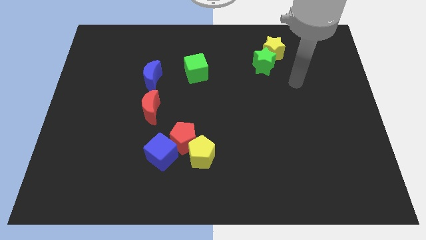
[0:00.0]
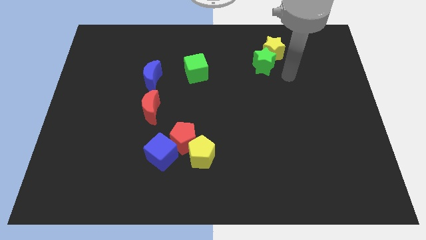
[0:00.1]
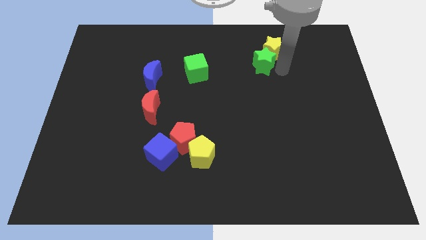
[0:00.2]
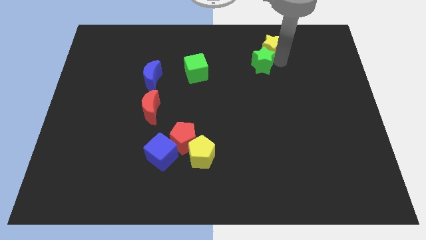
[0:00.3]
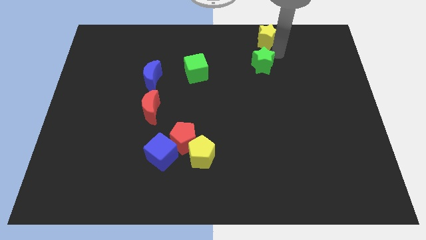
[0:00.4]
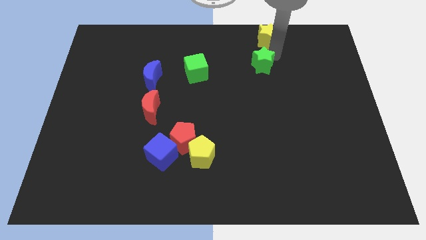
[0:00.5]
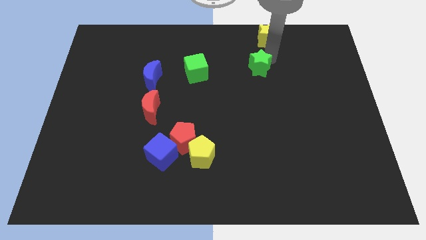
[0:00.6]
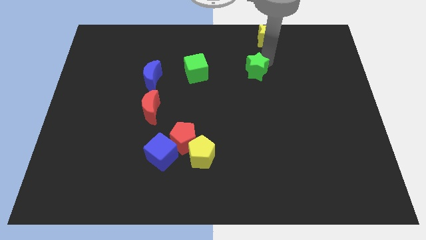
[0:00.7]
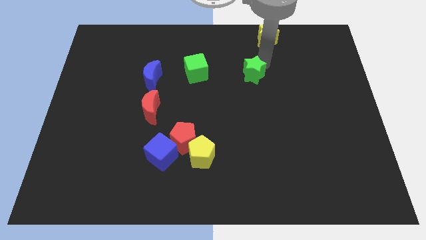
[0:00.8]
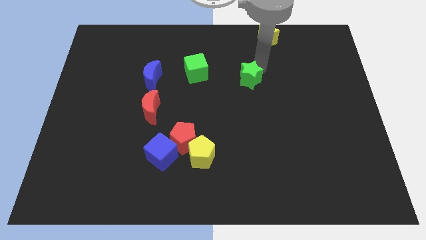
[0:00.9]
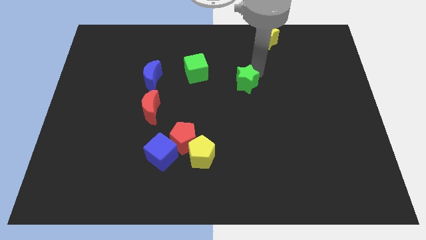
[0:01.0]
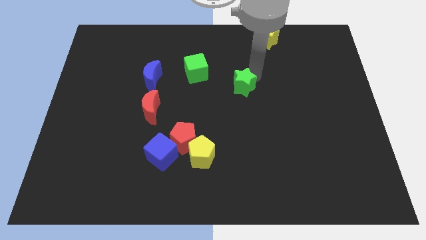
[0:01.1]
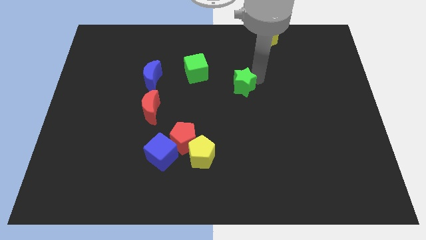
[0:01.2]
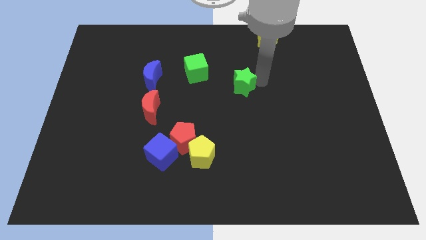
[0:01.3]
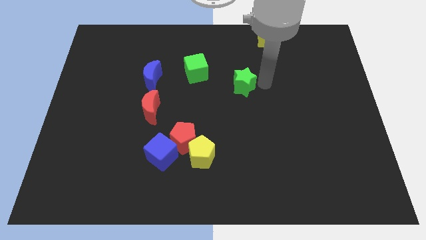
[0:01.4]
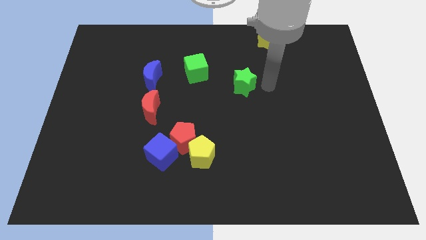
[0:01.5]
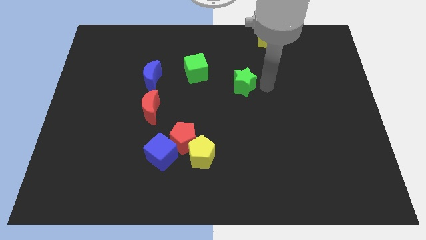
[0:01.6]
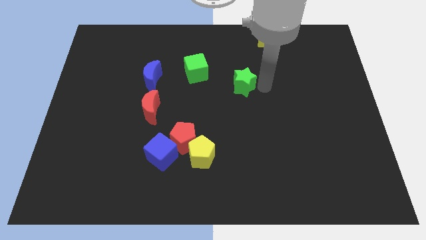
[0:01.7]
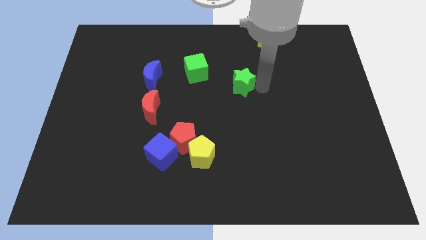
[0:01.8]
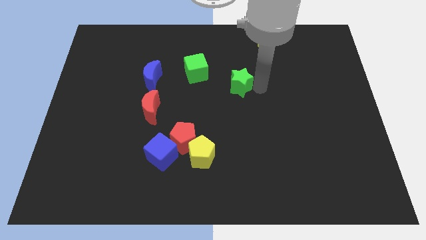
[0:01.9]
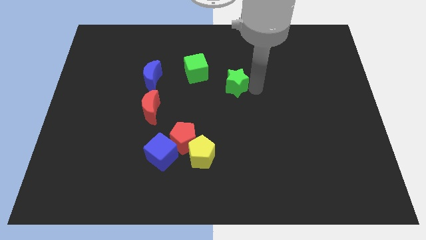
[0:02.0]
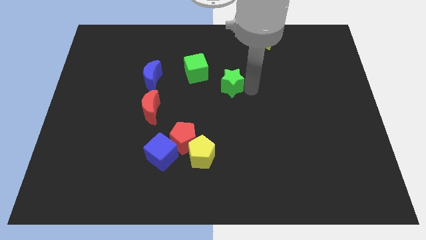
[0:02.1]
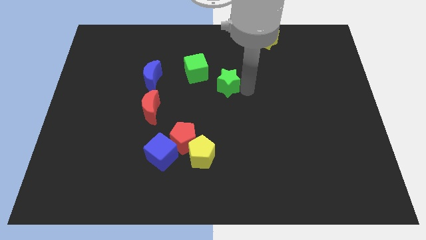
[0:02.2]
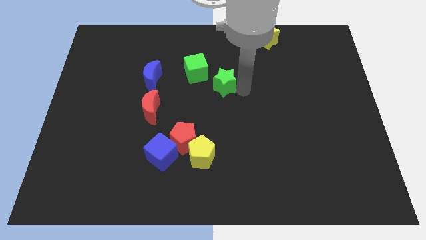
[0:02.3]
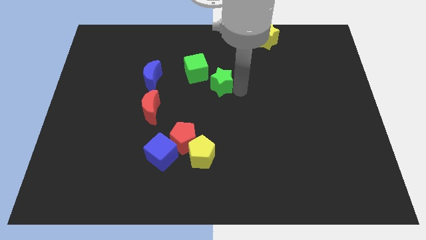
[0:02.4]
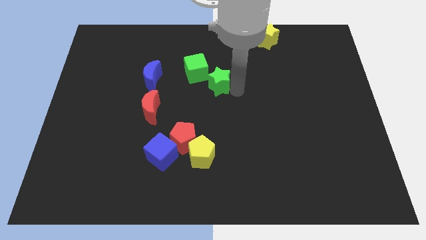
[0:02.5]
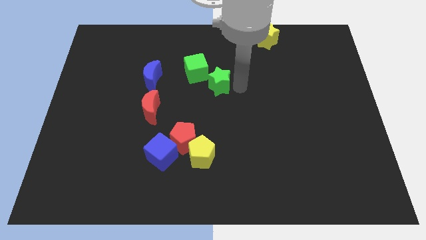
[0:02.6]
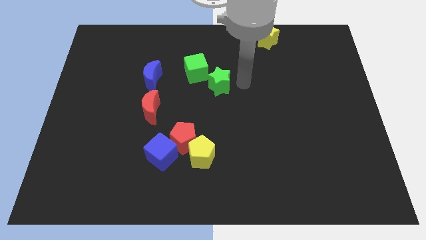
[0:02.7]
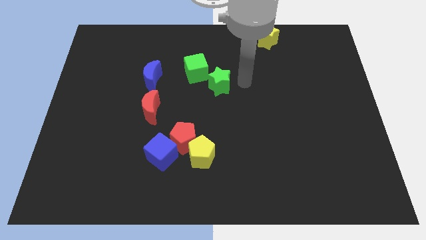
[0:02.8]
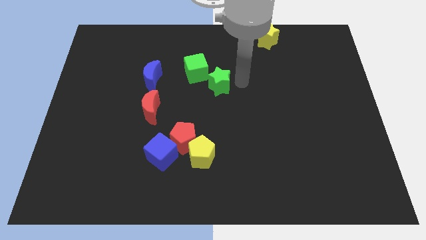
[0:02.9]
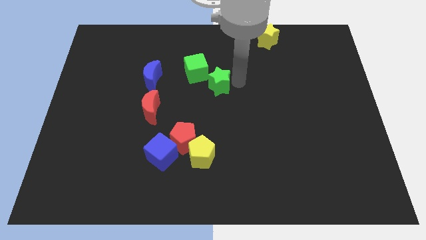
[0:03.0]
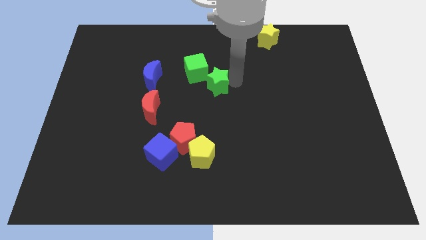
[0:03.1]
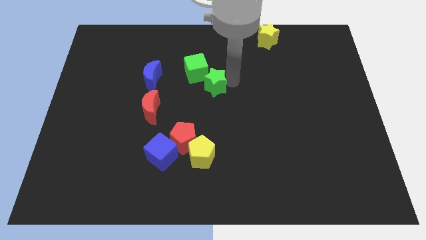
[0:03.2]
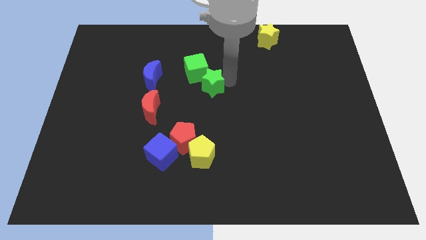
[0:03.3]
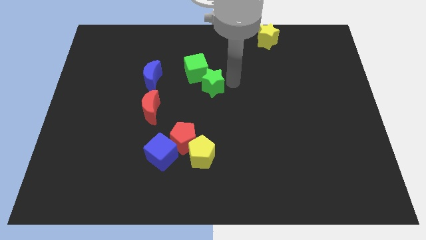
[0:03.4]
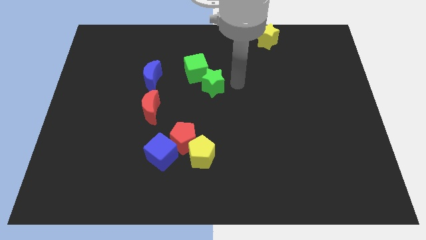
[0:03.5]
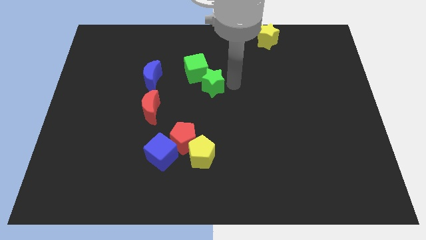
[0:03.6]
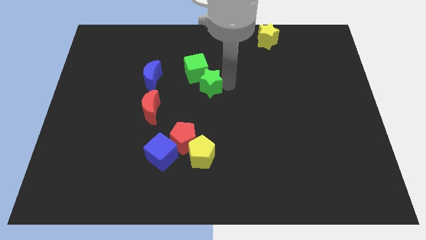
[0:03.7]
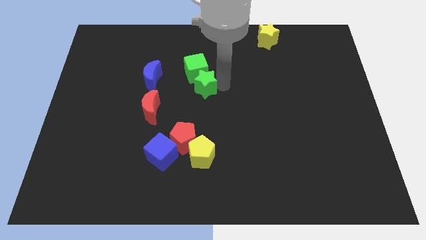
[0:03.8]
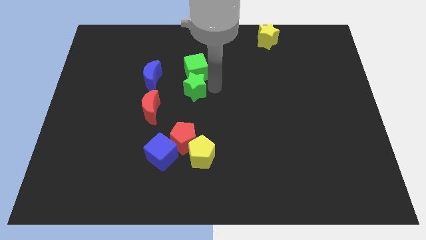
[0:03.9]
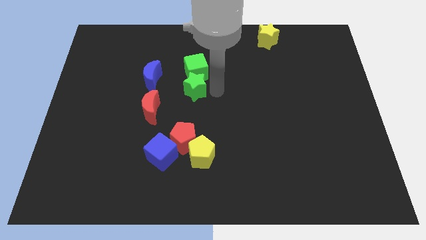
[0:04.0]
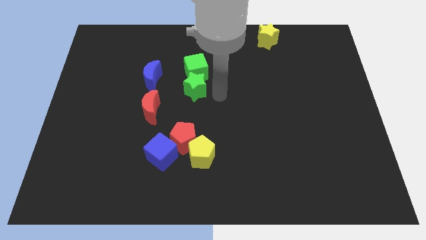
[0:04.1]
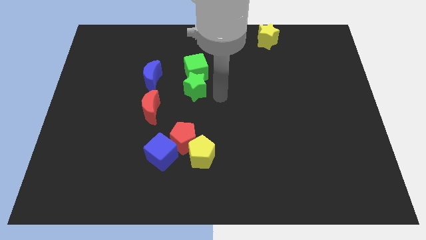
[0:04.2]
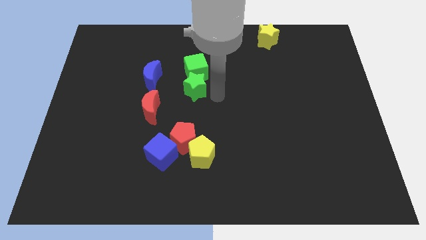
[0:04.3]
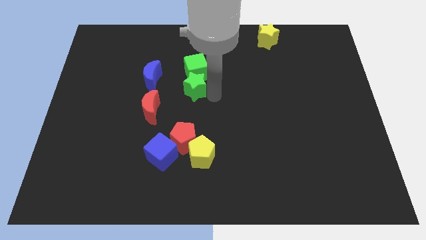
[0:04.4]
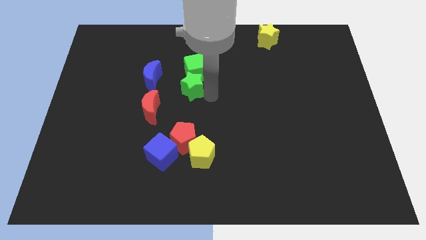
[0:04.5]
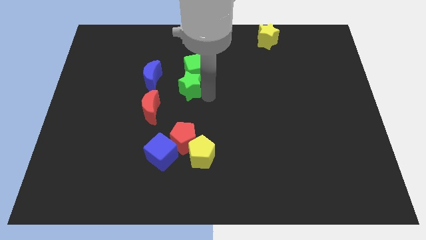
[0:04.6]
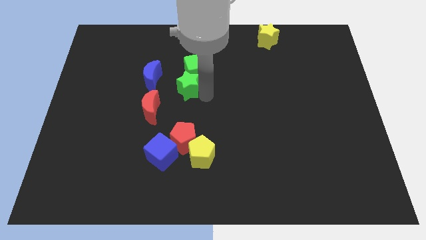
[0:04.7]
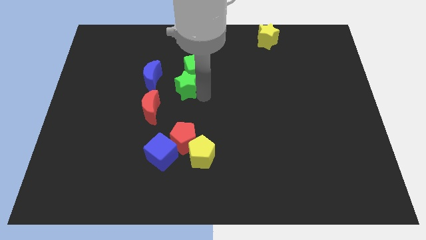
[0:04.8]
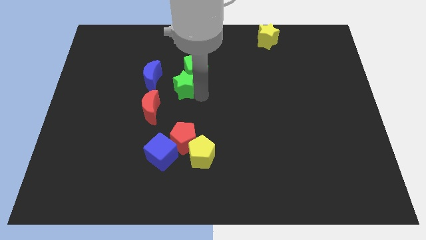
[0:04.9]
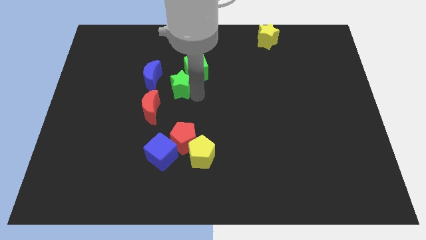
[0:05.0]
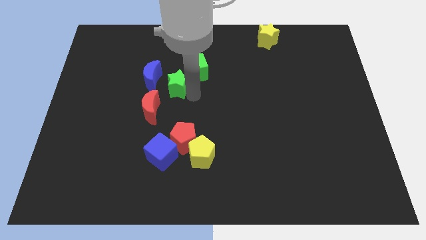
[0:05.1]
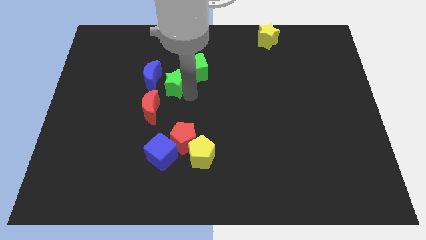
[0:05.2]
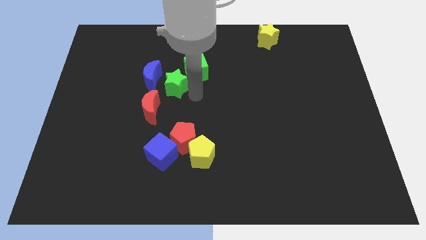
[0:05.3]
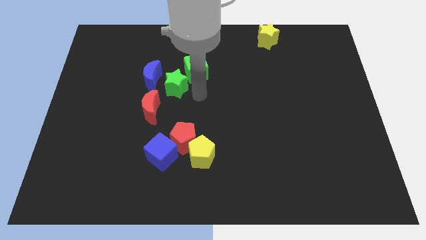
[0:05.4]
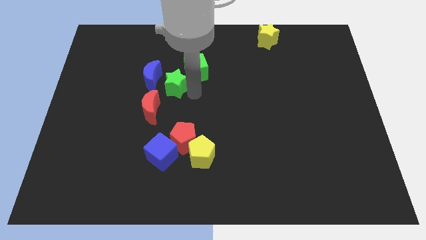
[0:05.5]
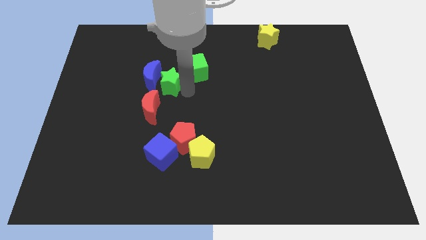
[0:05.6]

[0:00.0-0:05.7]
put the green star close to the blue moon

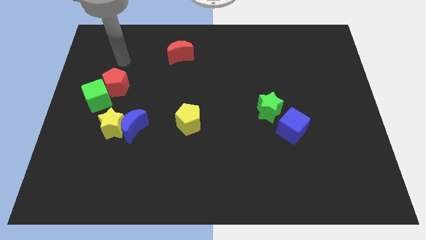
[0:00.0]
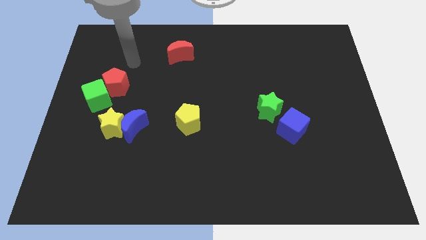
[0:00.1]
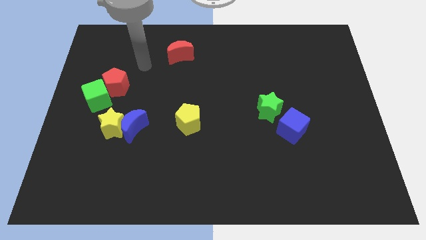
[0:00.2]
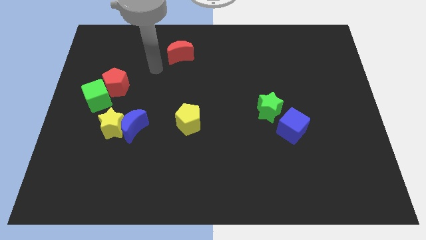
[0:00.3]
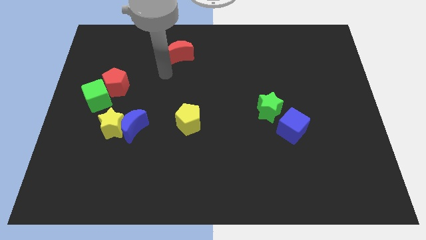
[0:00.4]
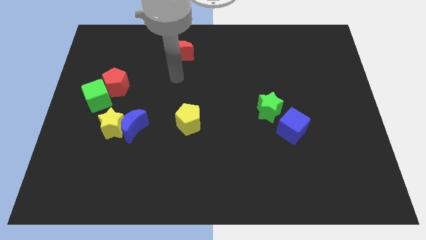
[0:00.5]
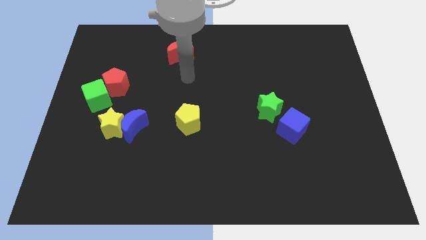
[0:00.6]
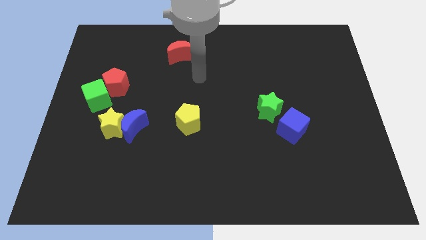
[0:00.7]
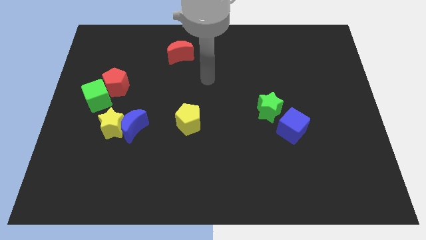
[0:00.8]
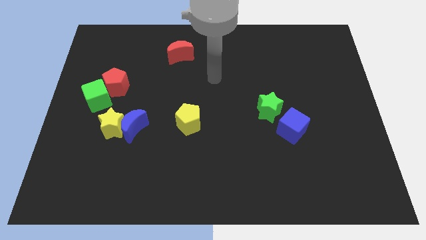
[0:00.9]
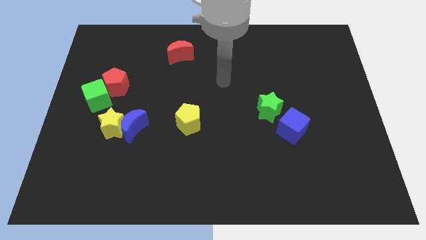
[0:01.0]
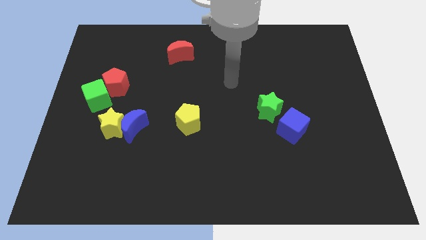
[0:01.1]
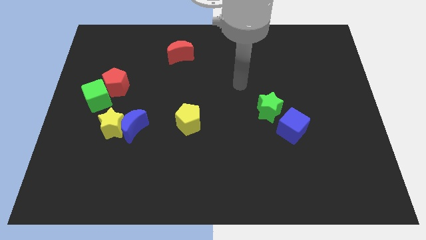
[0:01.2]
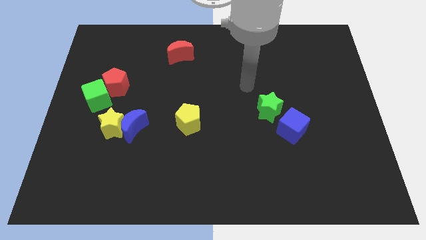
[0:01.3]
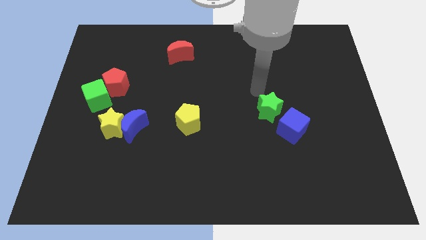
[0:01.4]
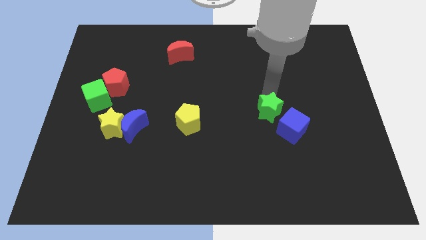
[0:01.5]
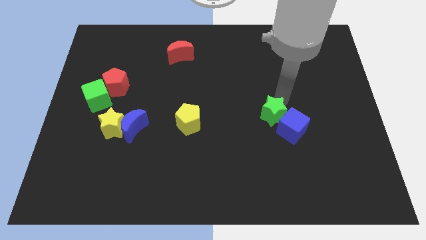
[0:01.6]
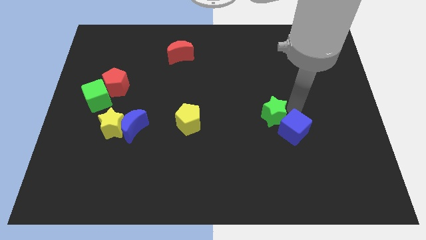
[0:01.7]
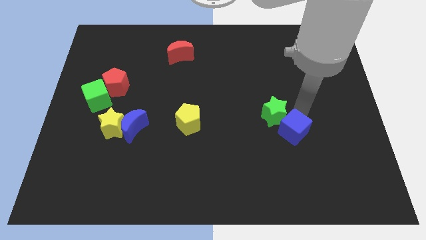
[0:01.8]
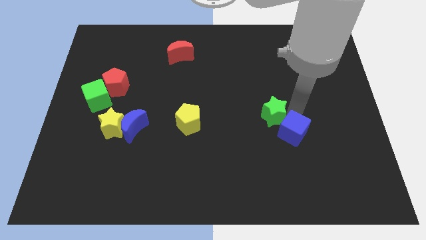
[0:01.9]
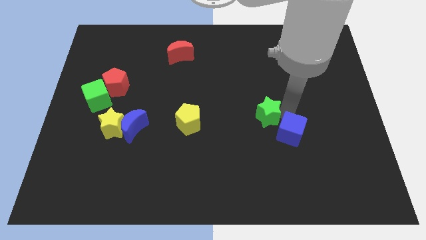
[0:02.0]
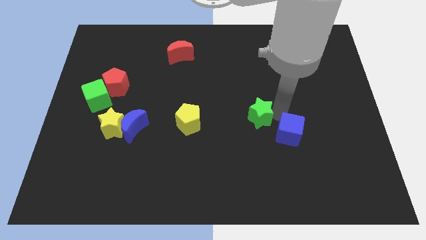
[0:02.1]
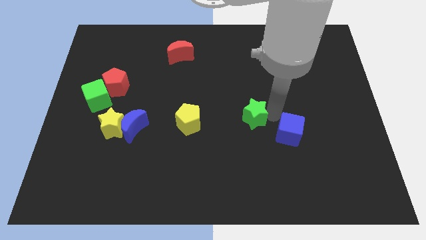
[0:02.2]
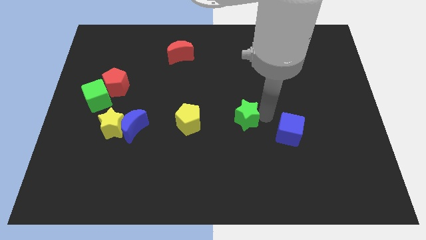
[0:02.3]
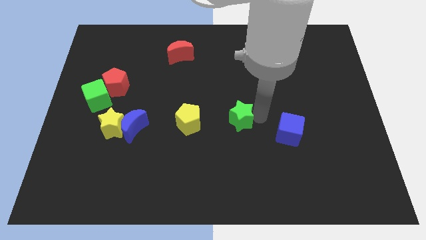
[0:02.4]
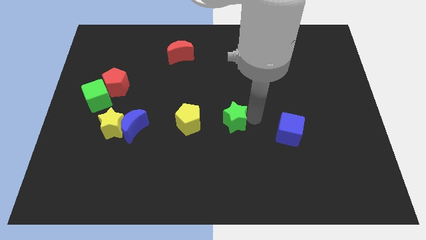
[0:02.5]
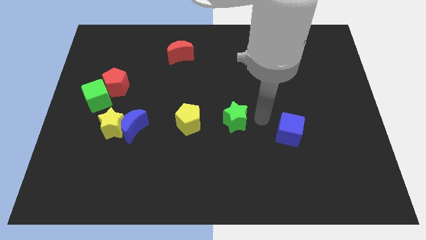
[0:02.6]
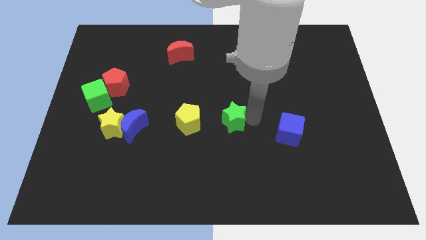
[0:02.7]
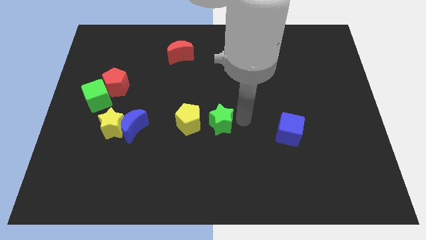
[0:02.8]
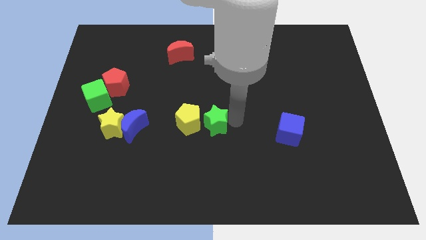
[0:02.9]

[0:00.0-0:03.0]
push the green star close to the yellow pentagon
